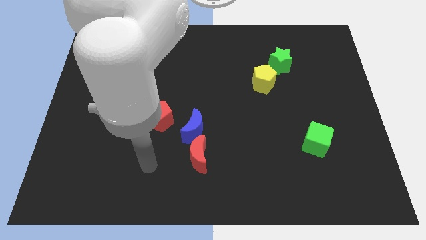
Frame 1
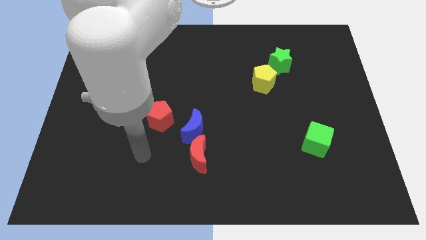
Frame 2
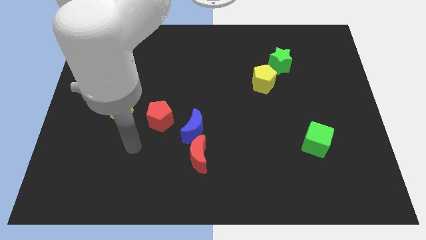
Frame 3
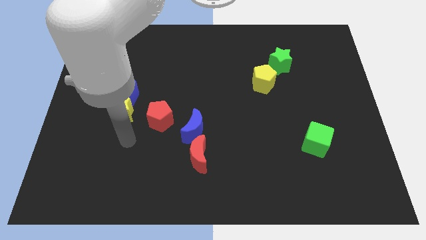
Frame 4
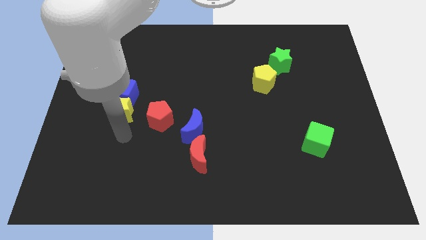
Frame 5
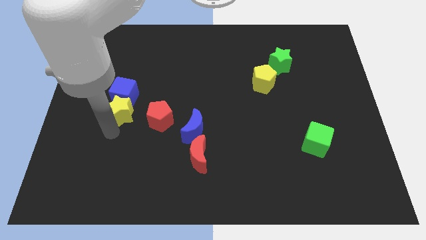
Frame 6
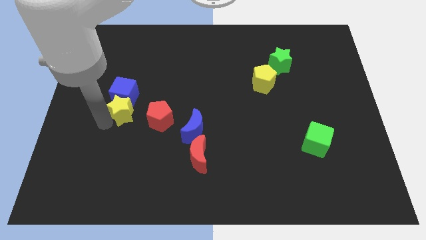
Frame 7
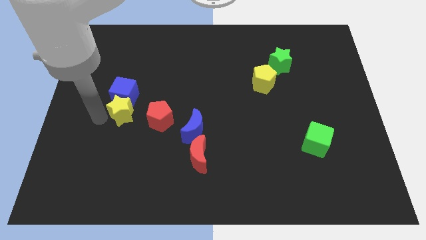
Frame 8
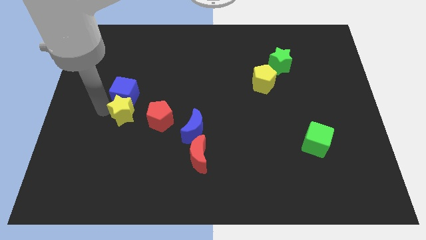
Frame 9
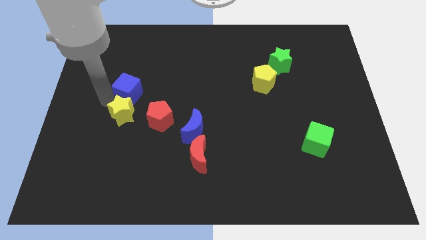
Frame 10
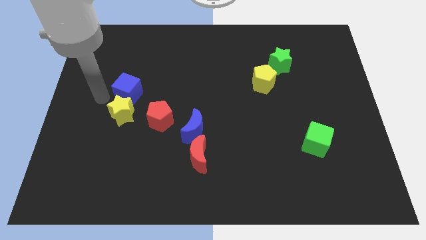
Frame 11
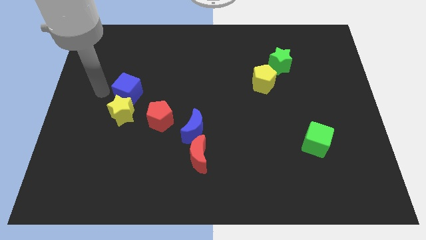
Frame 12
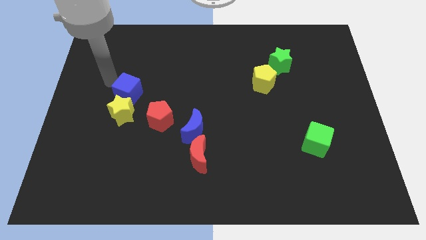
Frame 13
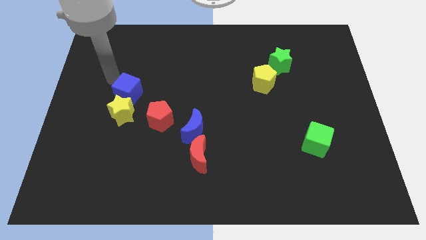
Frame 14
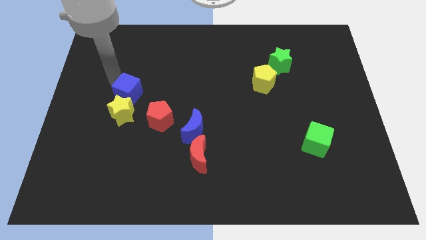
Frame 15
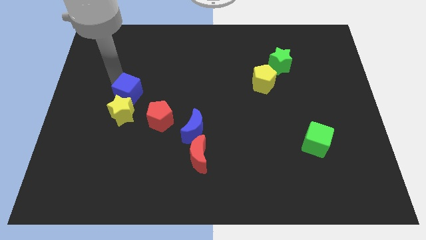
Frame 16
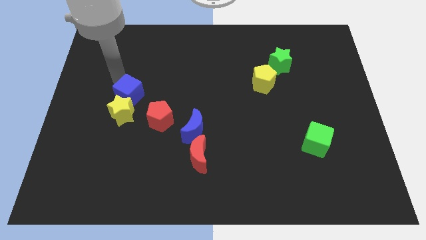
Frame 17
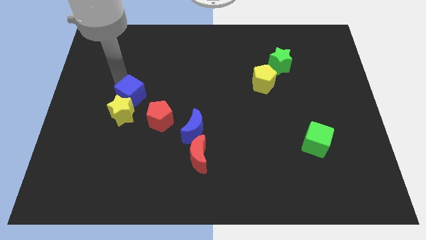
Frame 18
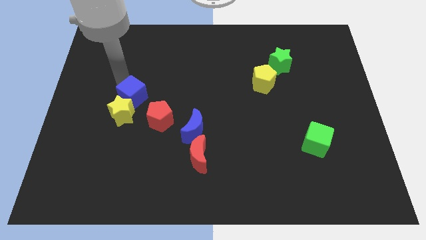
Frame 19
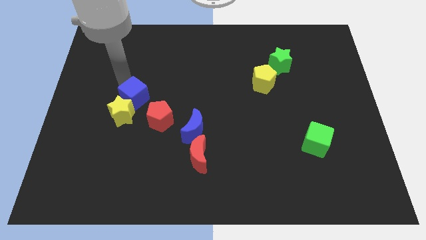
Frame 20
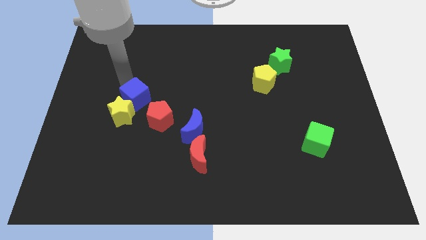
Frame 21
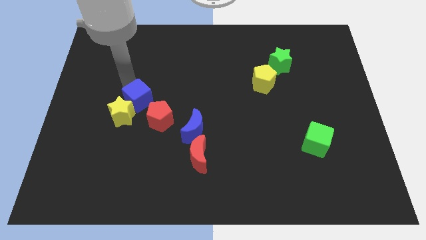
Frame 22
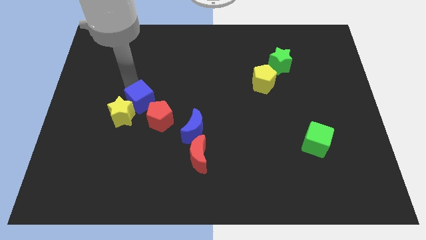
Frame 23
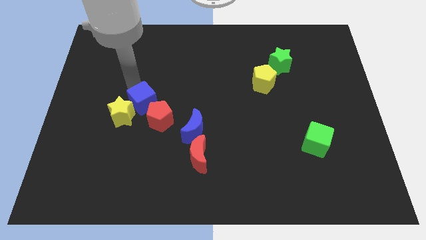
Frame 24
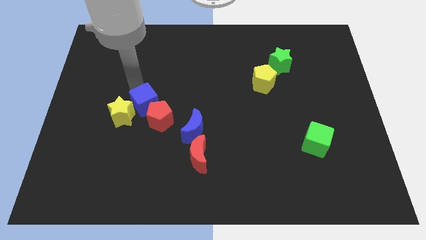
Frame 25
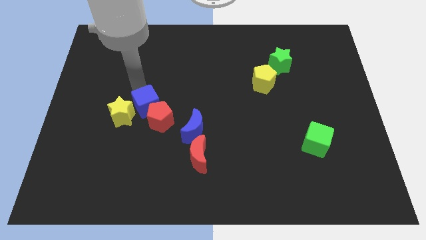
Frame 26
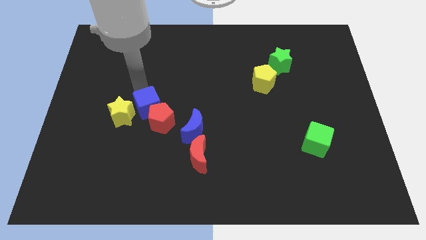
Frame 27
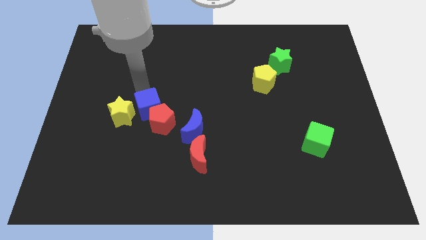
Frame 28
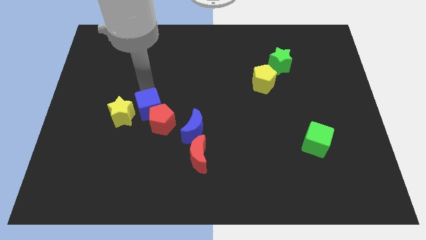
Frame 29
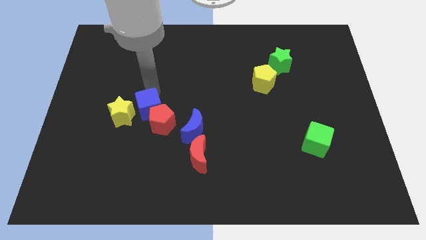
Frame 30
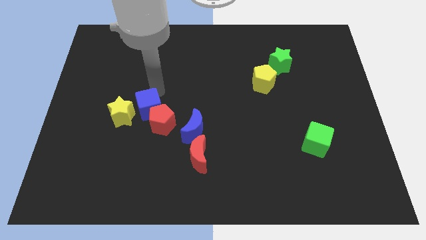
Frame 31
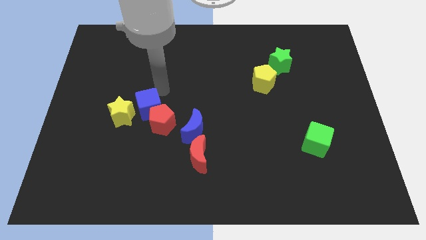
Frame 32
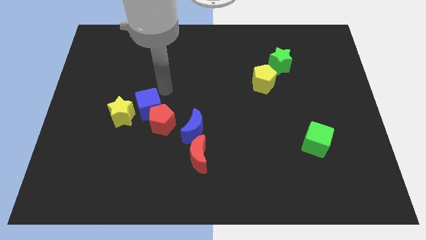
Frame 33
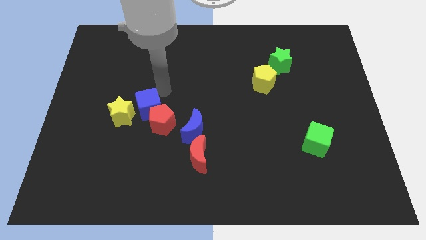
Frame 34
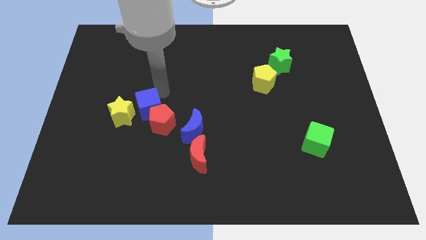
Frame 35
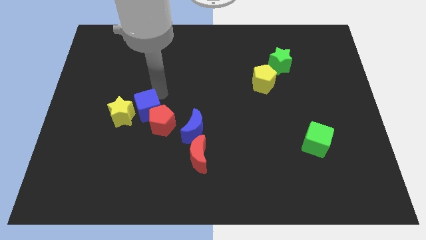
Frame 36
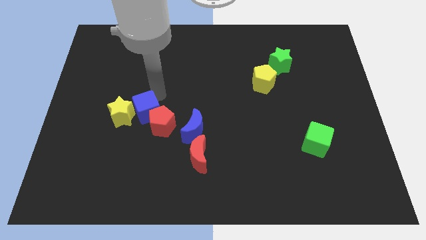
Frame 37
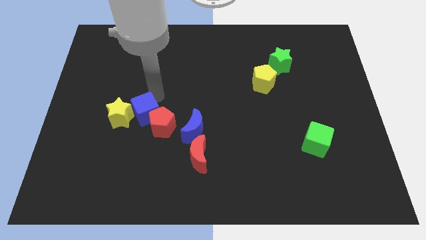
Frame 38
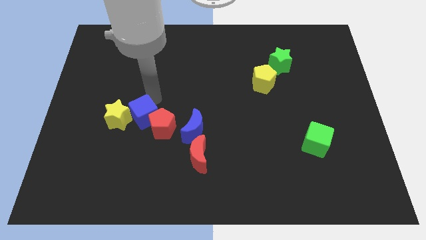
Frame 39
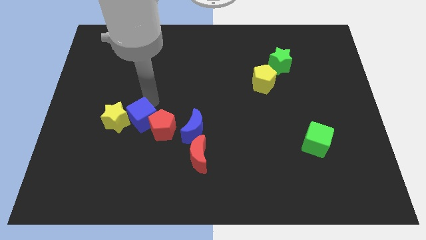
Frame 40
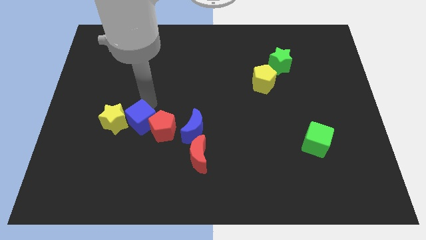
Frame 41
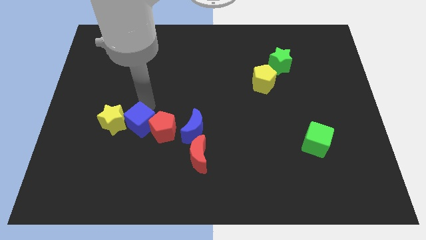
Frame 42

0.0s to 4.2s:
slide the blue cube slightly down

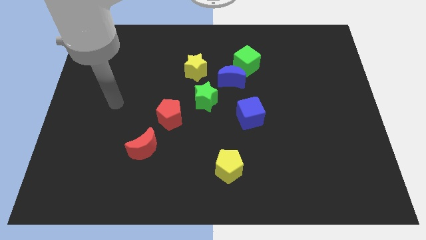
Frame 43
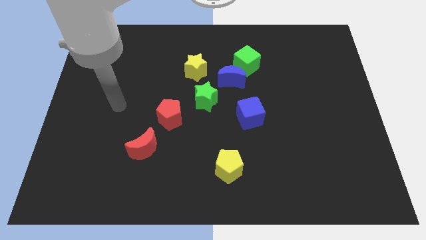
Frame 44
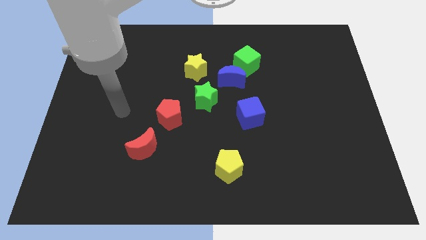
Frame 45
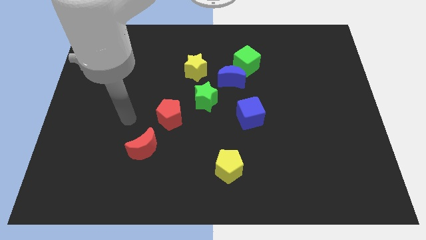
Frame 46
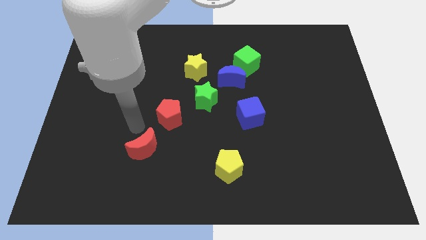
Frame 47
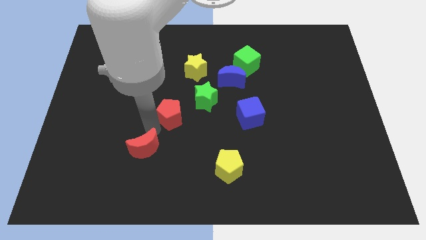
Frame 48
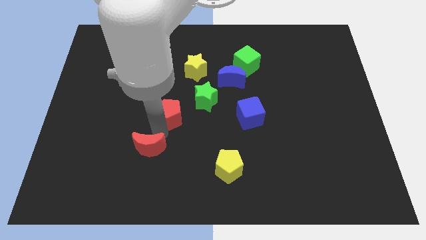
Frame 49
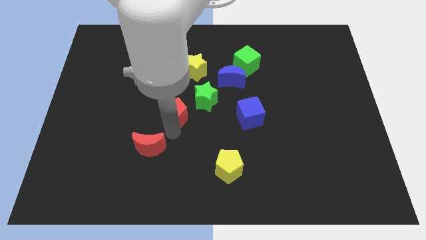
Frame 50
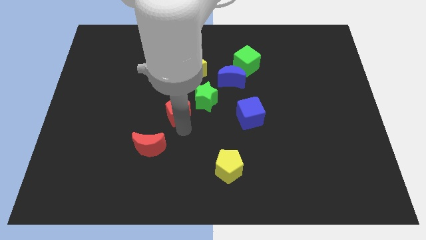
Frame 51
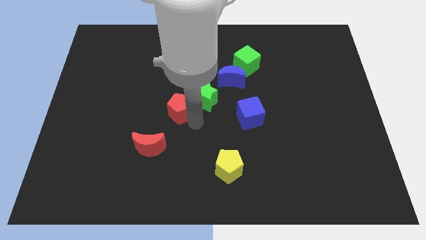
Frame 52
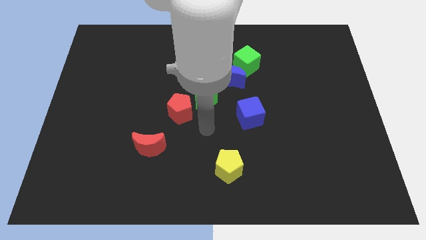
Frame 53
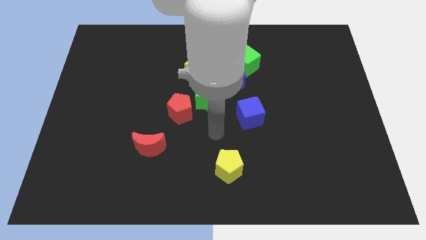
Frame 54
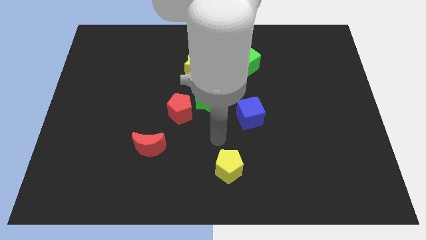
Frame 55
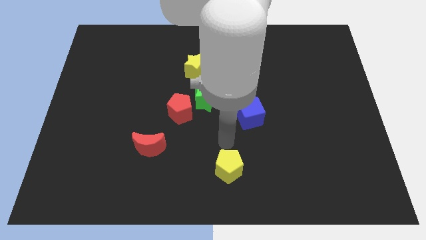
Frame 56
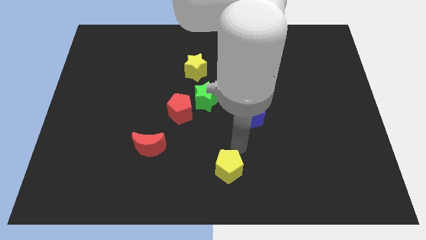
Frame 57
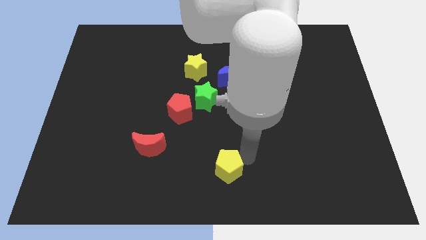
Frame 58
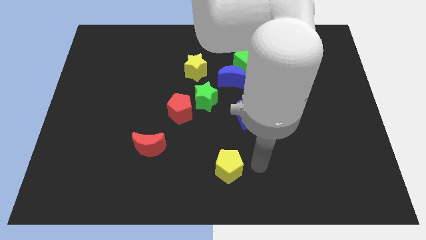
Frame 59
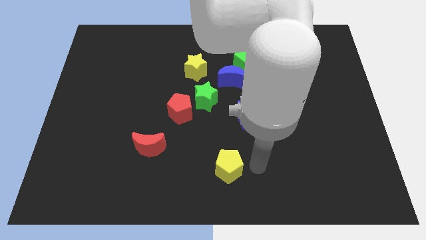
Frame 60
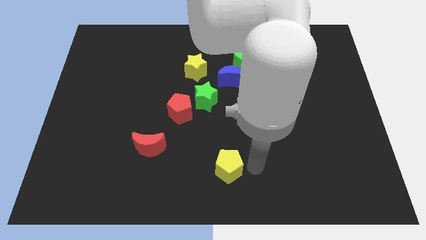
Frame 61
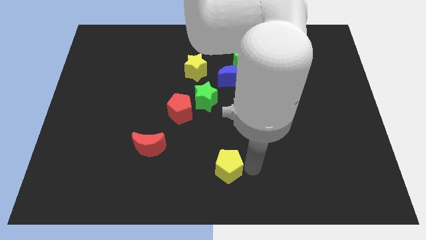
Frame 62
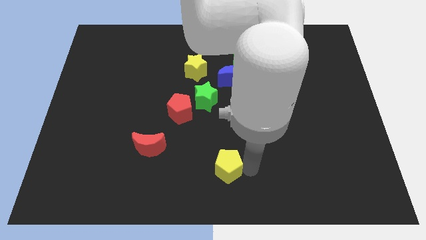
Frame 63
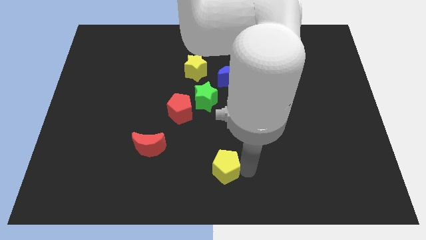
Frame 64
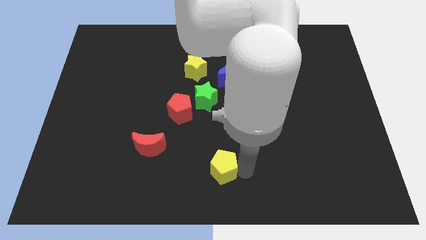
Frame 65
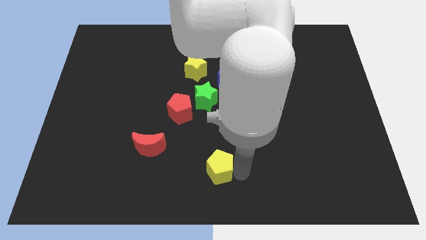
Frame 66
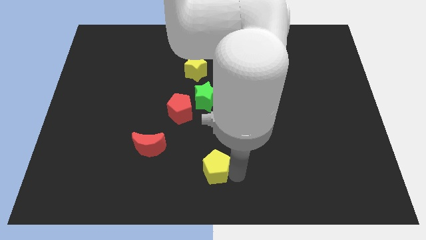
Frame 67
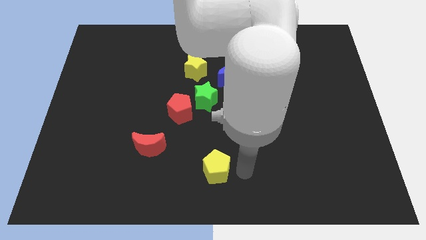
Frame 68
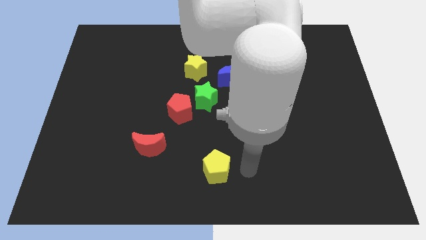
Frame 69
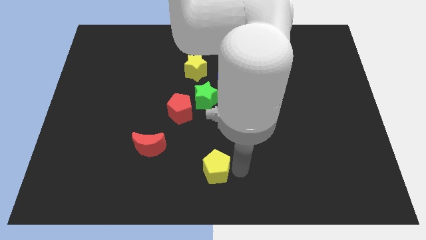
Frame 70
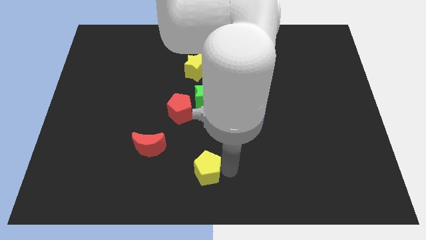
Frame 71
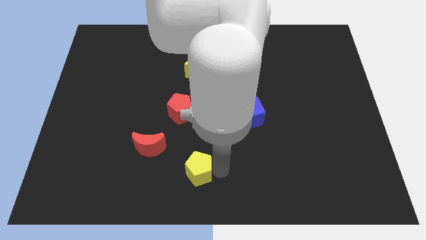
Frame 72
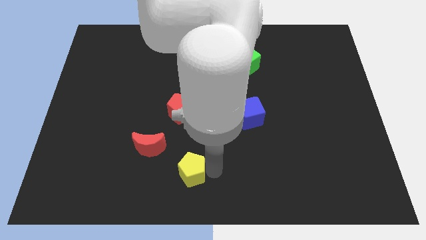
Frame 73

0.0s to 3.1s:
slightly slide the yellow pentagon left

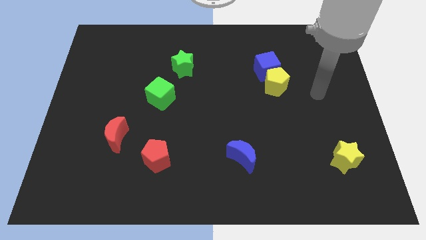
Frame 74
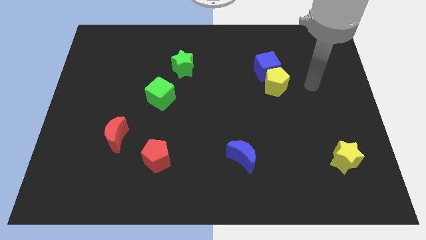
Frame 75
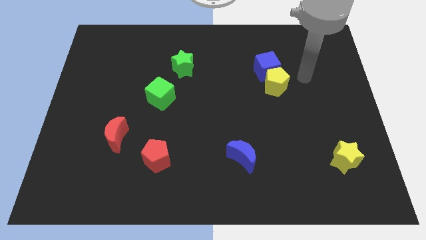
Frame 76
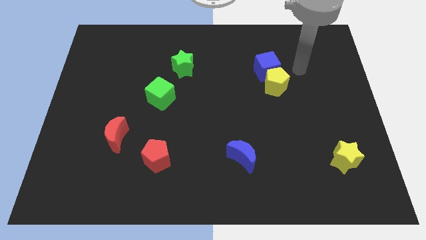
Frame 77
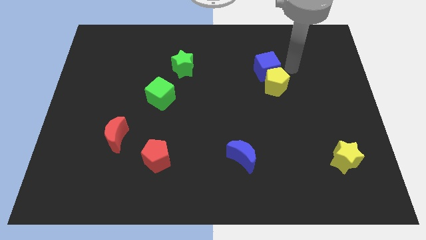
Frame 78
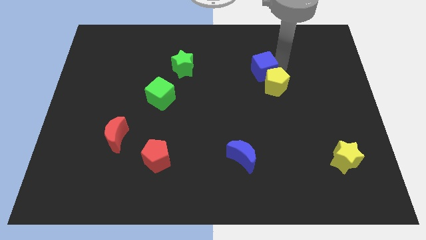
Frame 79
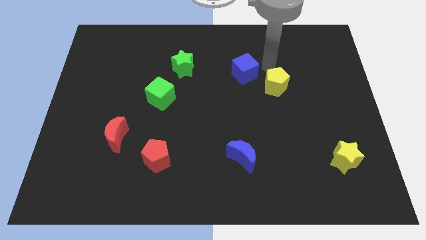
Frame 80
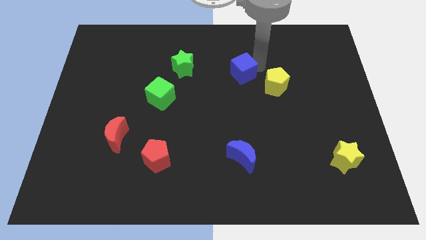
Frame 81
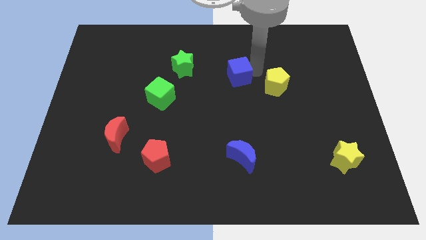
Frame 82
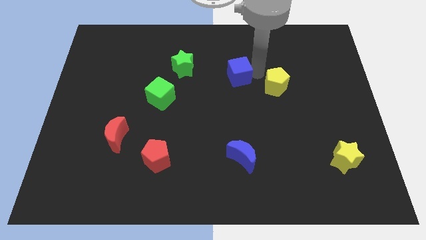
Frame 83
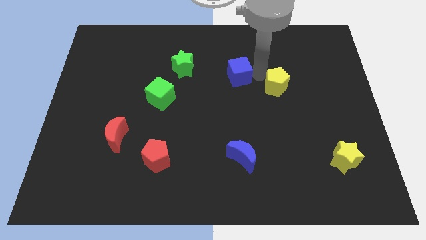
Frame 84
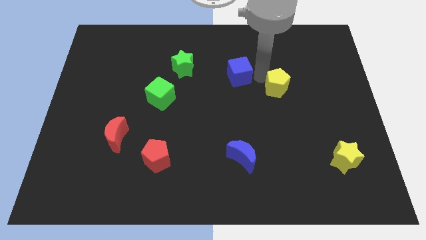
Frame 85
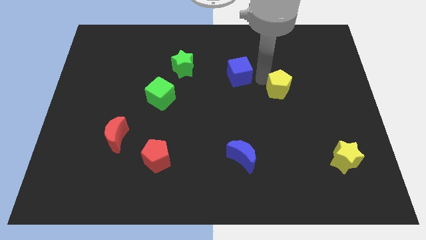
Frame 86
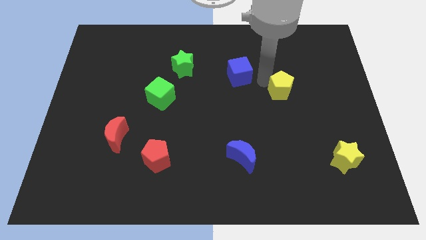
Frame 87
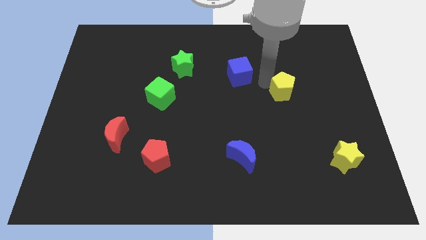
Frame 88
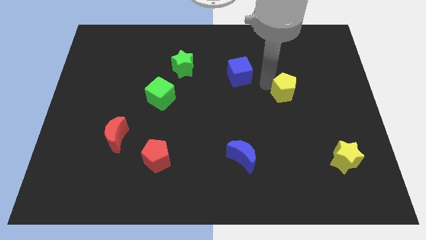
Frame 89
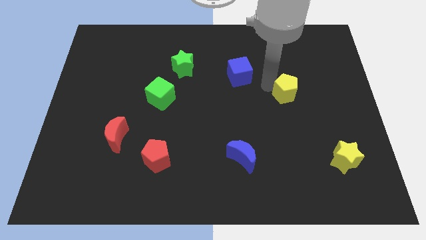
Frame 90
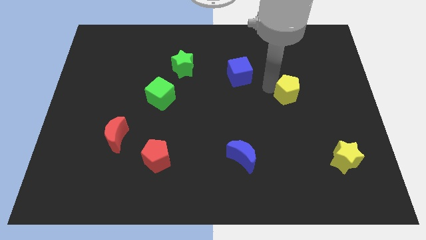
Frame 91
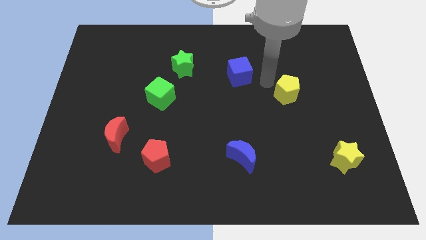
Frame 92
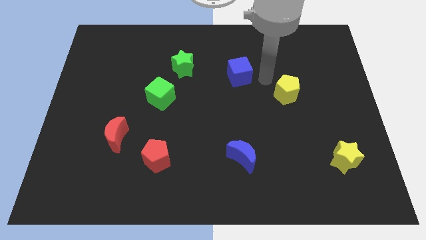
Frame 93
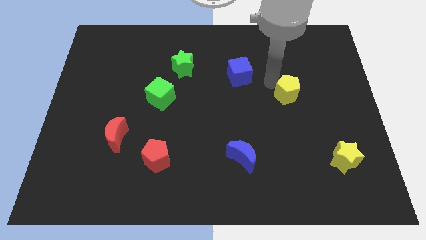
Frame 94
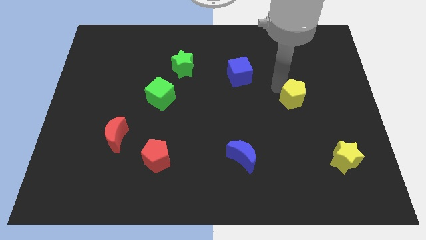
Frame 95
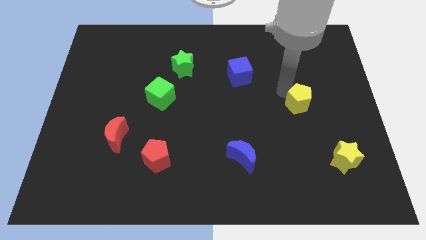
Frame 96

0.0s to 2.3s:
move the yellow pentagon a little bit down and right
